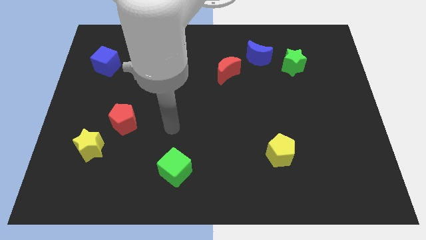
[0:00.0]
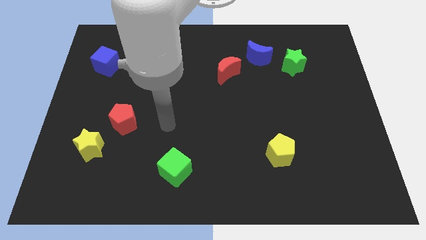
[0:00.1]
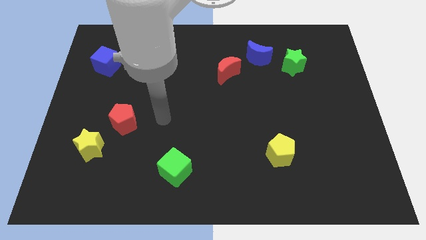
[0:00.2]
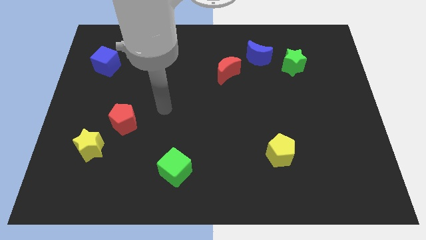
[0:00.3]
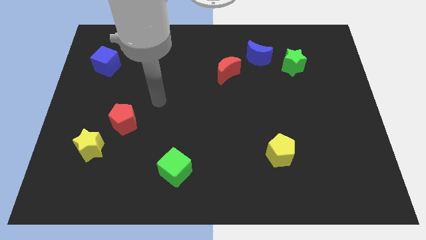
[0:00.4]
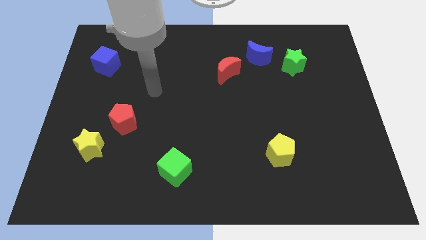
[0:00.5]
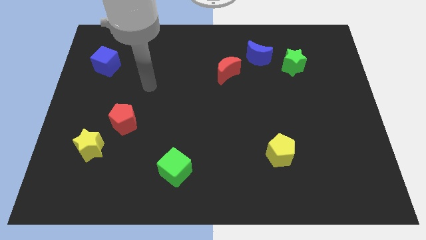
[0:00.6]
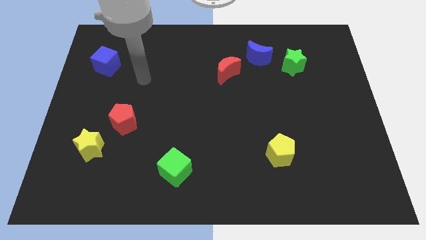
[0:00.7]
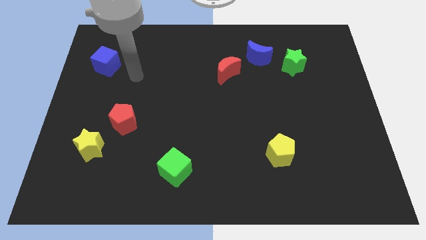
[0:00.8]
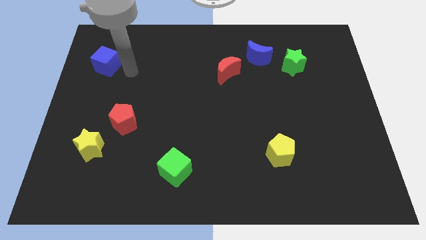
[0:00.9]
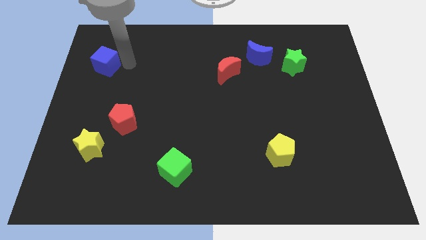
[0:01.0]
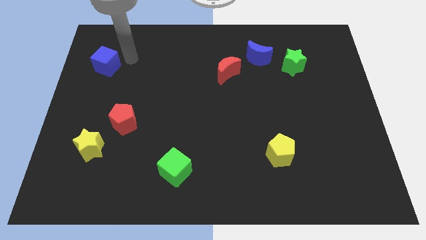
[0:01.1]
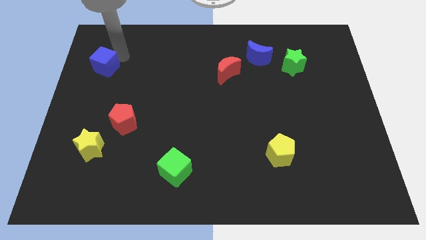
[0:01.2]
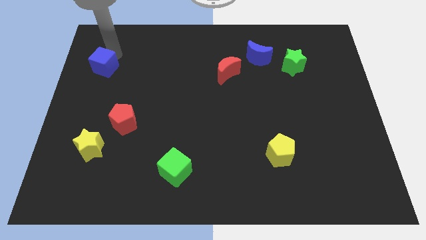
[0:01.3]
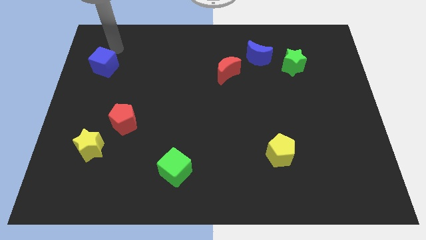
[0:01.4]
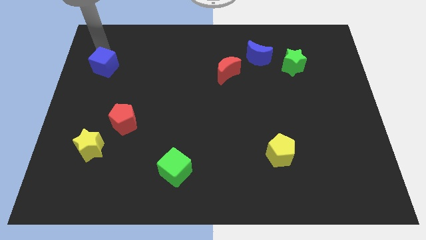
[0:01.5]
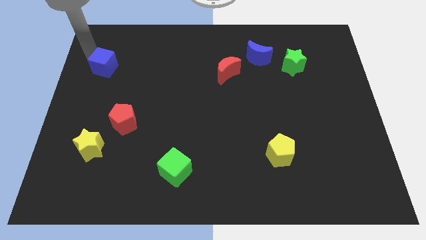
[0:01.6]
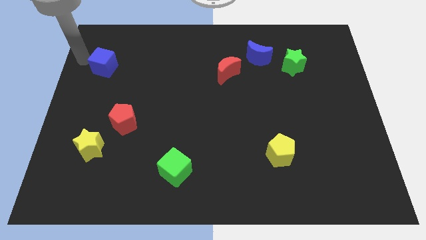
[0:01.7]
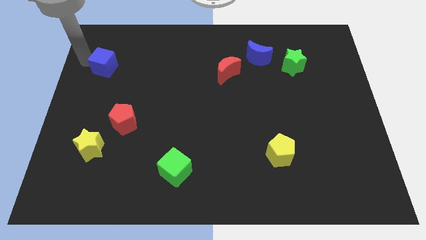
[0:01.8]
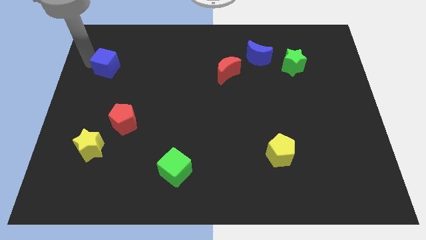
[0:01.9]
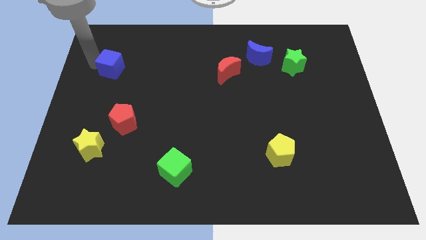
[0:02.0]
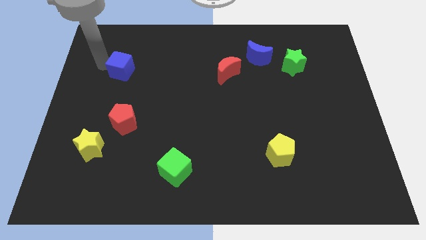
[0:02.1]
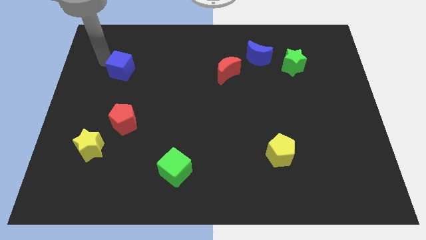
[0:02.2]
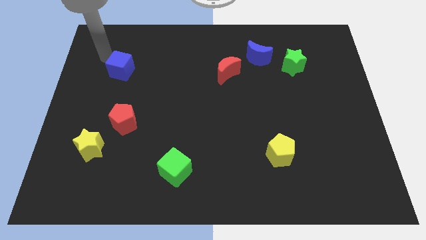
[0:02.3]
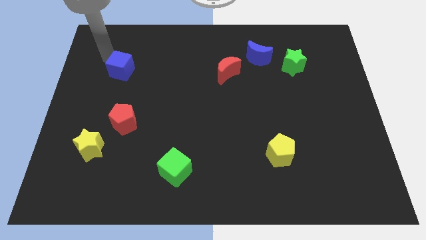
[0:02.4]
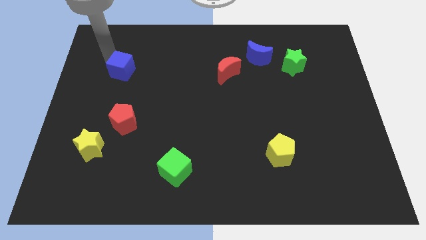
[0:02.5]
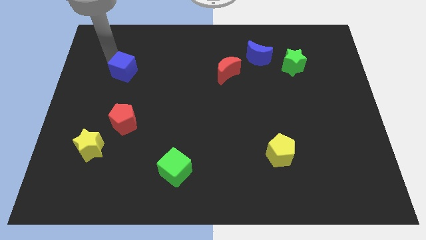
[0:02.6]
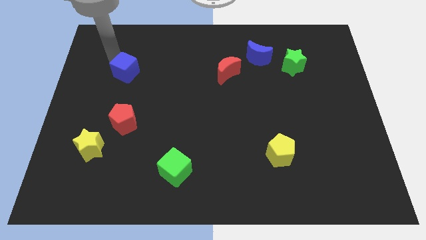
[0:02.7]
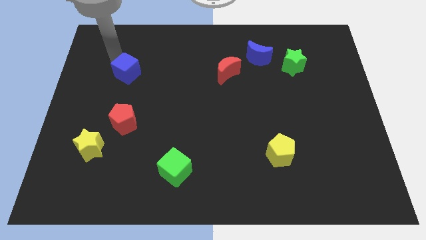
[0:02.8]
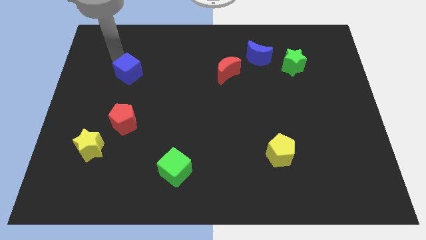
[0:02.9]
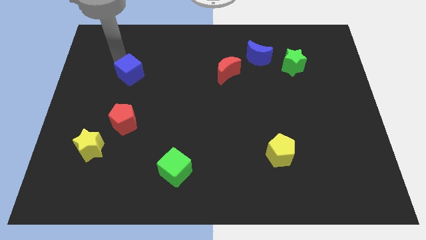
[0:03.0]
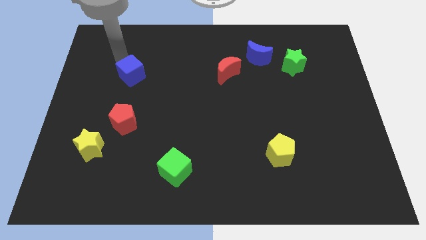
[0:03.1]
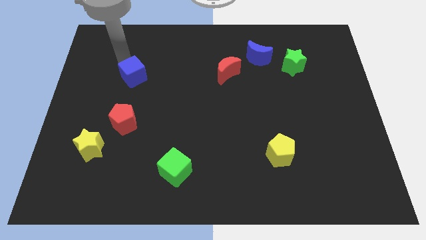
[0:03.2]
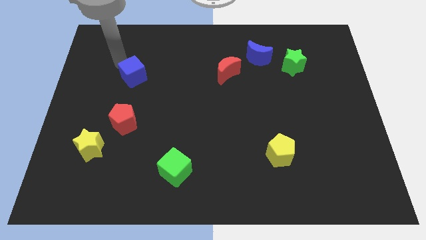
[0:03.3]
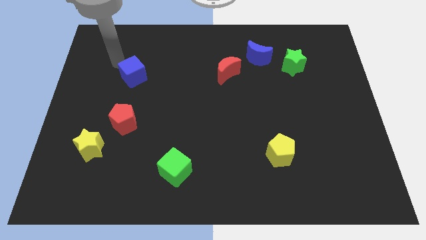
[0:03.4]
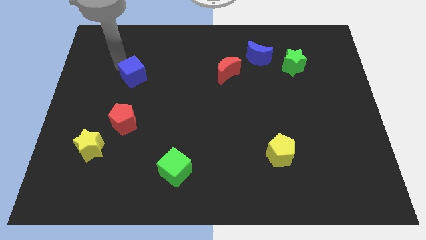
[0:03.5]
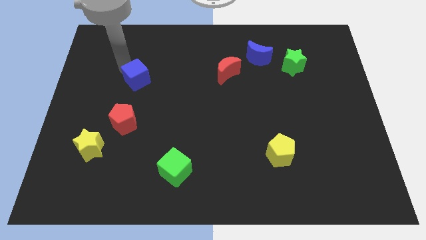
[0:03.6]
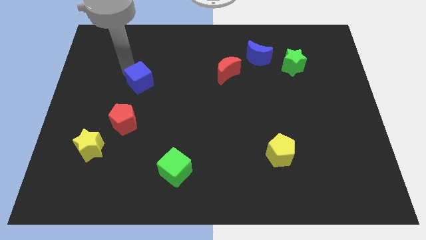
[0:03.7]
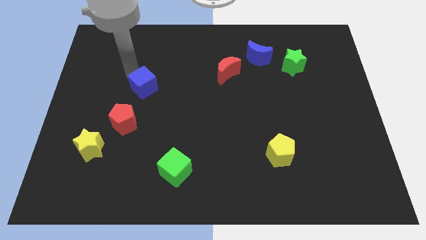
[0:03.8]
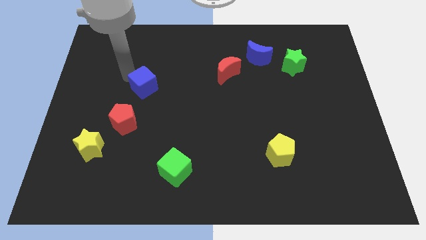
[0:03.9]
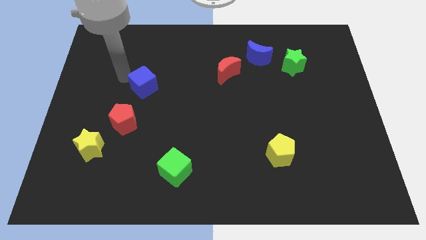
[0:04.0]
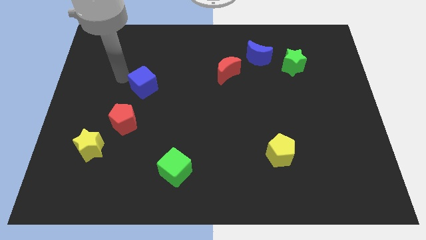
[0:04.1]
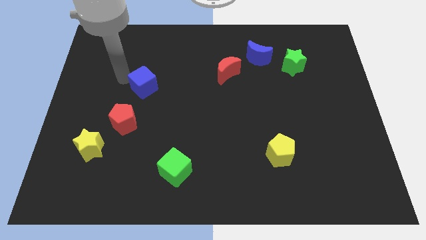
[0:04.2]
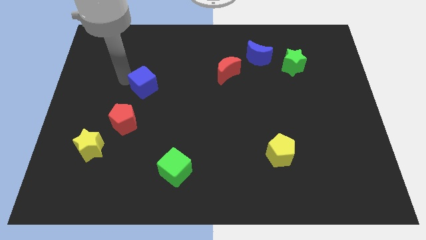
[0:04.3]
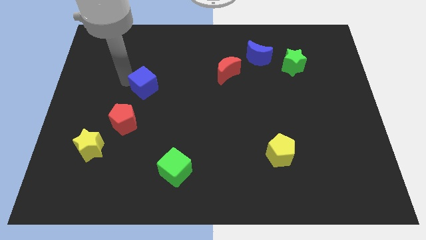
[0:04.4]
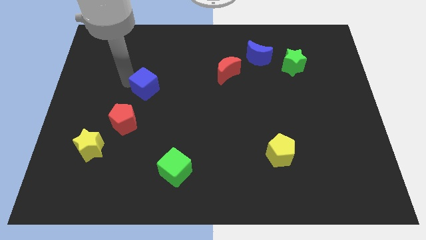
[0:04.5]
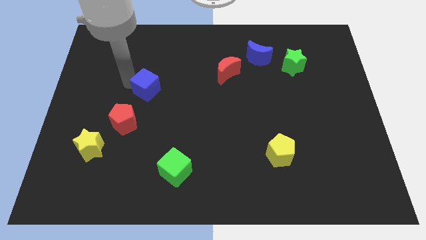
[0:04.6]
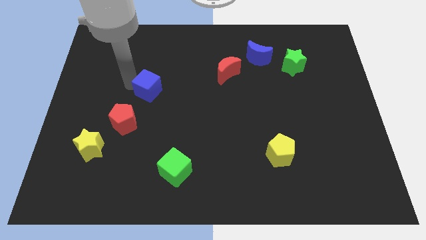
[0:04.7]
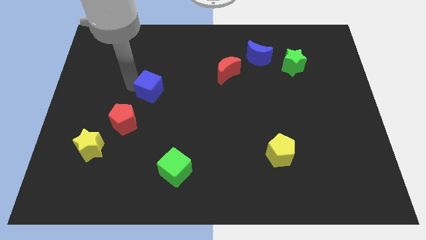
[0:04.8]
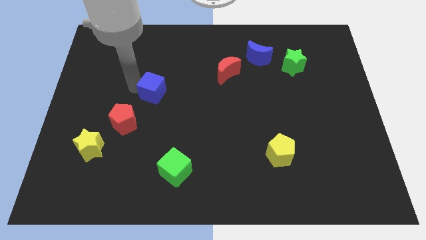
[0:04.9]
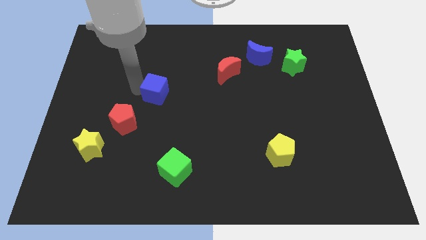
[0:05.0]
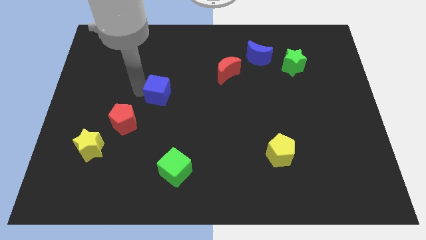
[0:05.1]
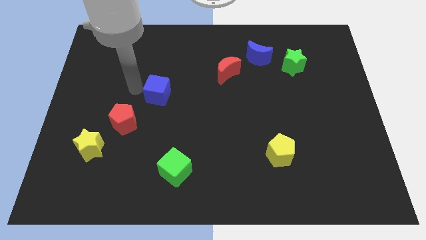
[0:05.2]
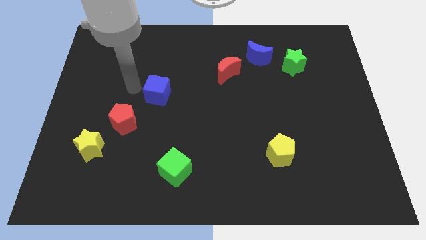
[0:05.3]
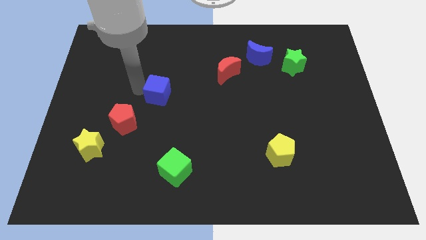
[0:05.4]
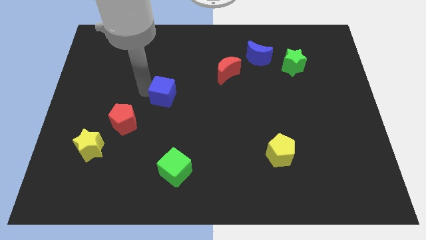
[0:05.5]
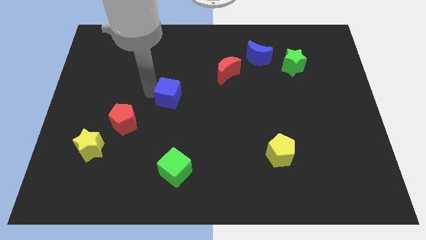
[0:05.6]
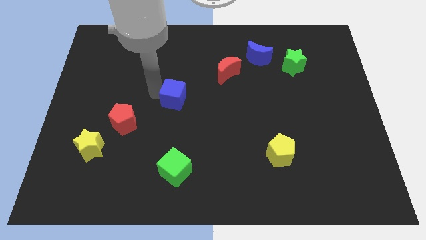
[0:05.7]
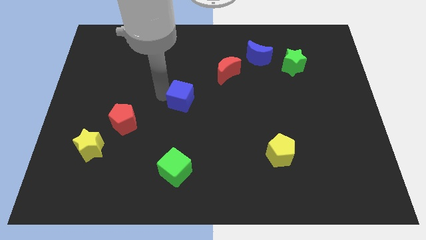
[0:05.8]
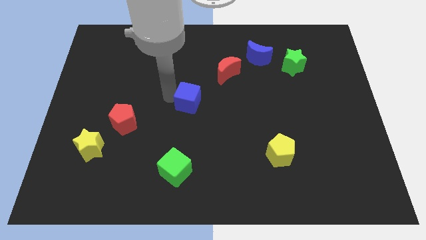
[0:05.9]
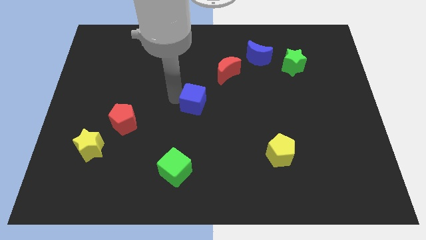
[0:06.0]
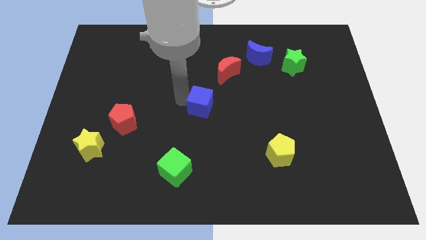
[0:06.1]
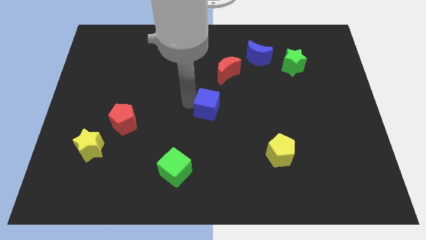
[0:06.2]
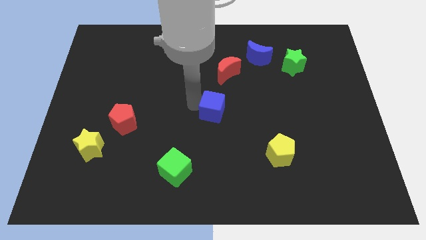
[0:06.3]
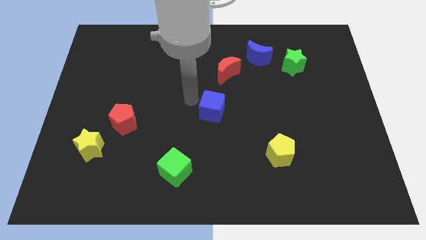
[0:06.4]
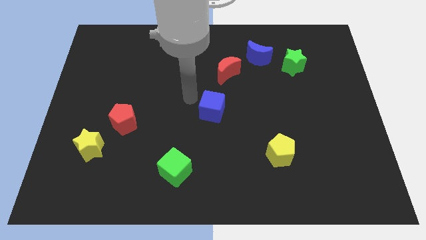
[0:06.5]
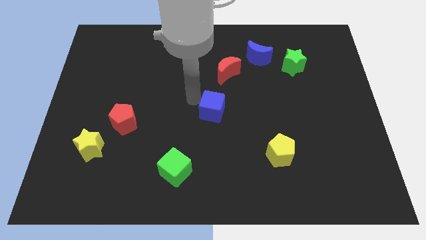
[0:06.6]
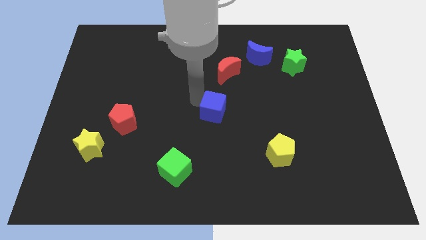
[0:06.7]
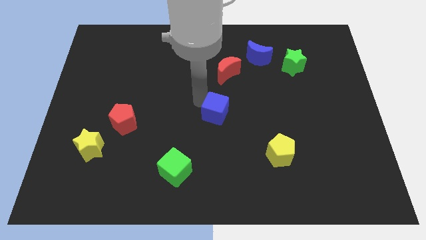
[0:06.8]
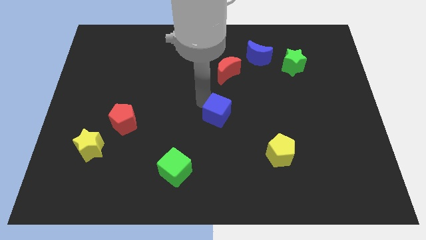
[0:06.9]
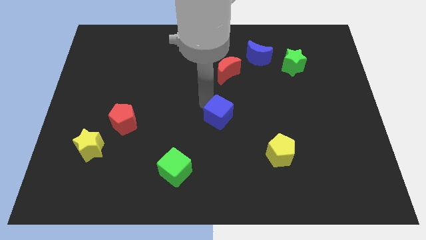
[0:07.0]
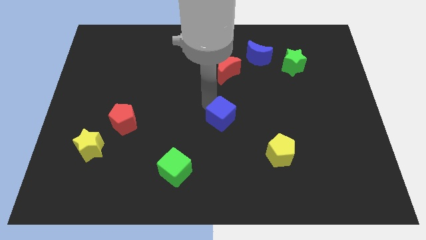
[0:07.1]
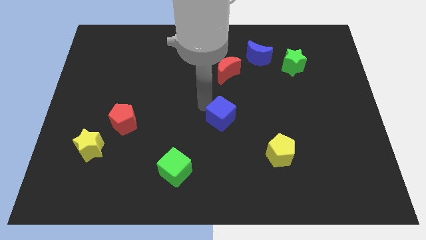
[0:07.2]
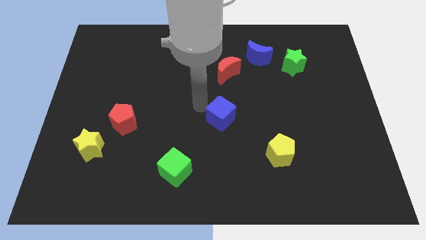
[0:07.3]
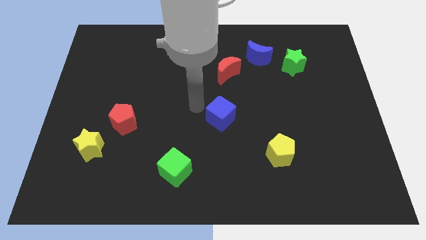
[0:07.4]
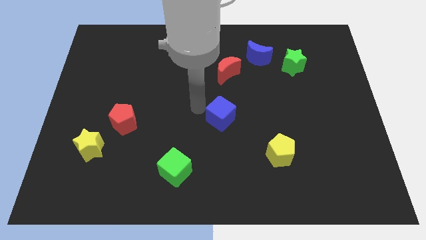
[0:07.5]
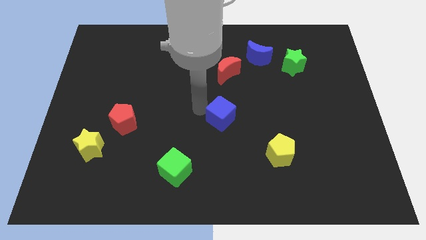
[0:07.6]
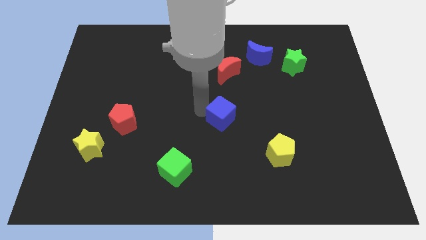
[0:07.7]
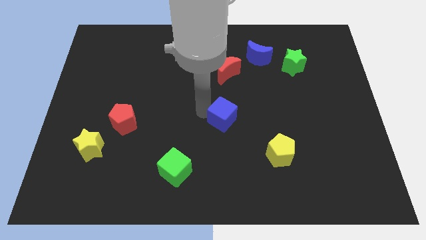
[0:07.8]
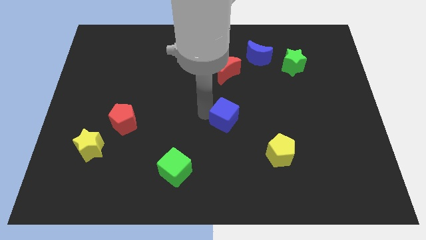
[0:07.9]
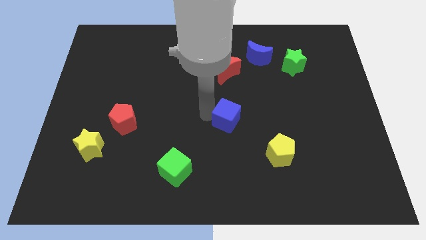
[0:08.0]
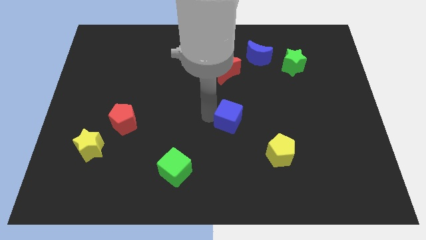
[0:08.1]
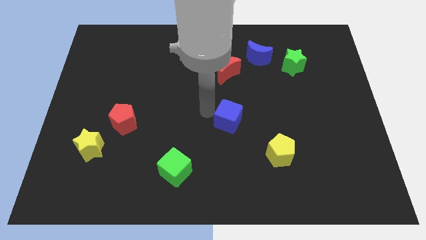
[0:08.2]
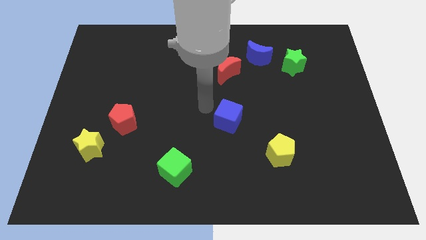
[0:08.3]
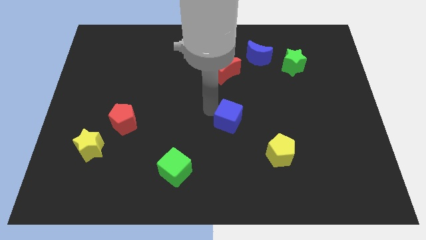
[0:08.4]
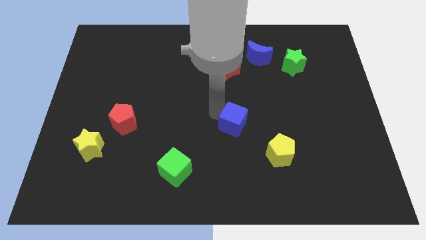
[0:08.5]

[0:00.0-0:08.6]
put the blue cube to the top left side of the yellow pentagon
